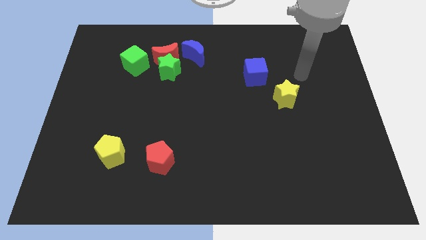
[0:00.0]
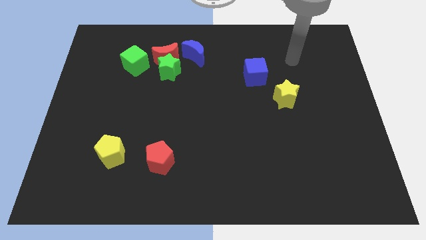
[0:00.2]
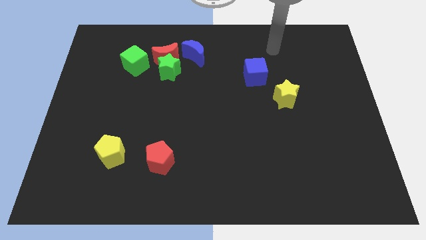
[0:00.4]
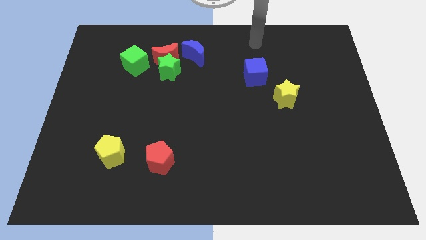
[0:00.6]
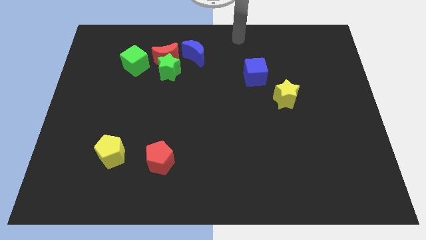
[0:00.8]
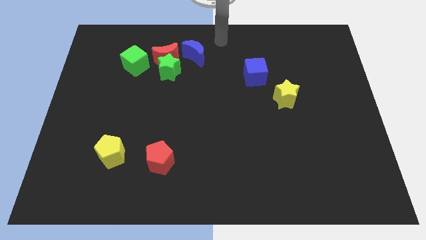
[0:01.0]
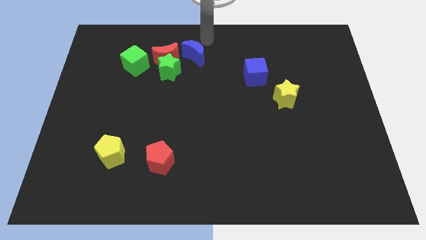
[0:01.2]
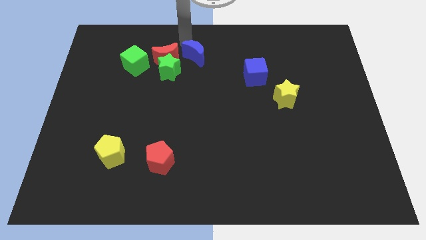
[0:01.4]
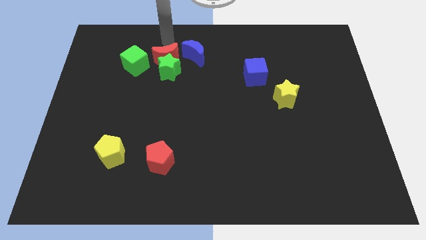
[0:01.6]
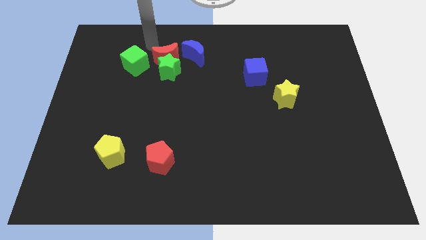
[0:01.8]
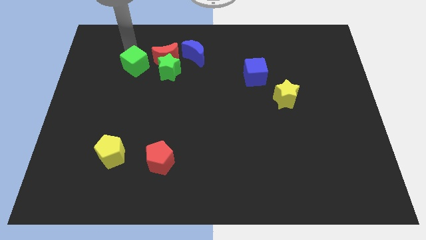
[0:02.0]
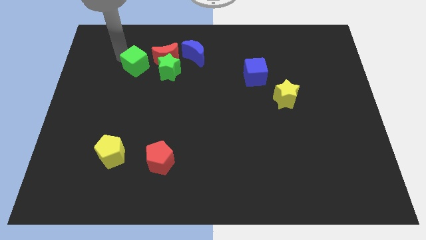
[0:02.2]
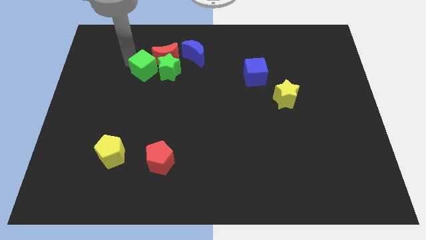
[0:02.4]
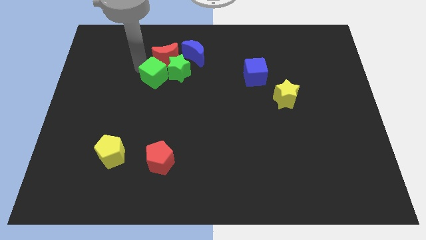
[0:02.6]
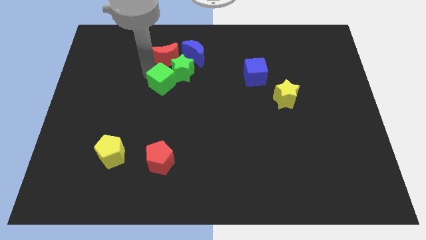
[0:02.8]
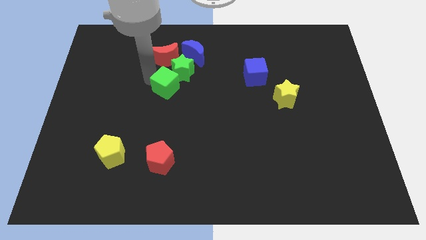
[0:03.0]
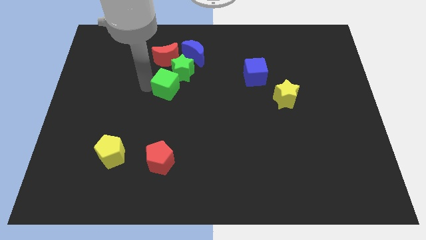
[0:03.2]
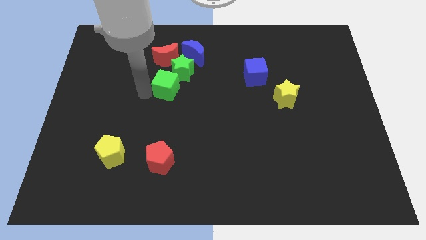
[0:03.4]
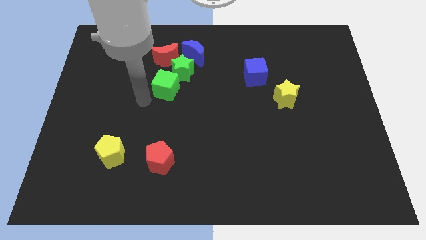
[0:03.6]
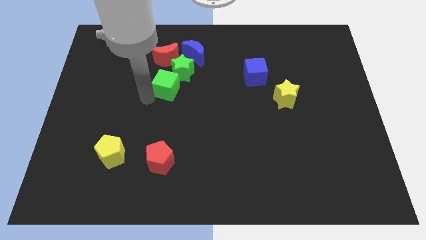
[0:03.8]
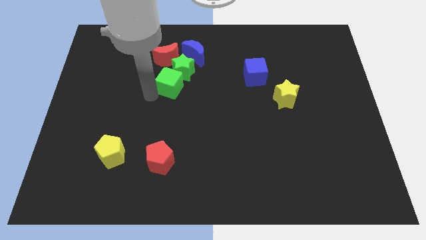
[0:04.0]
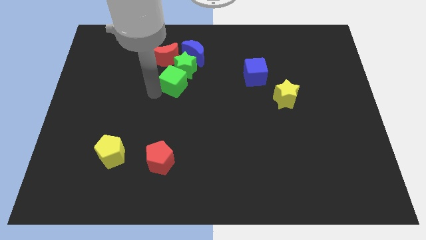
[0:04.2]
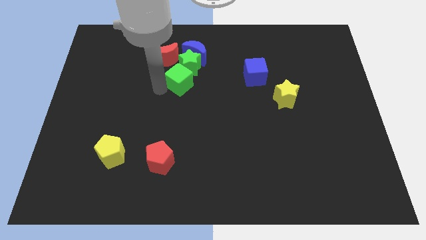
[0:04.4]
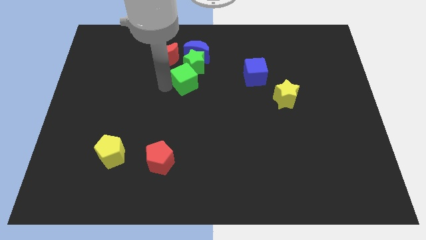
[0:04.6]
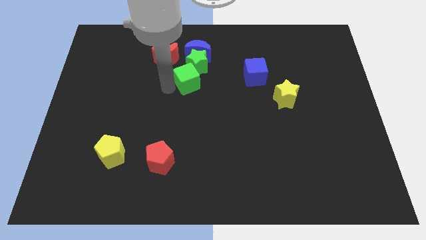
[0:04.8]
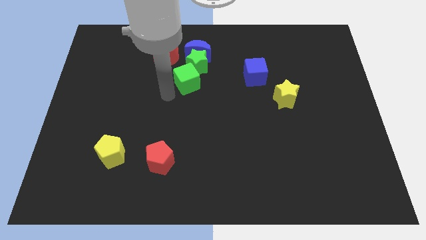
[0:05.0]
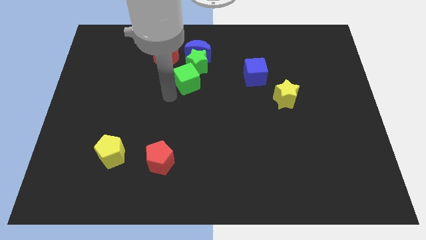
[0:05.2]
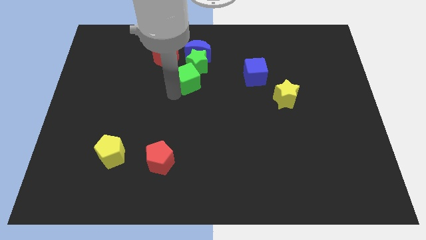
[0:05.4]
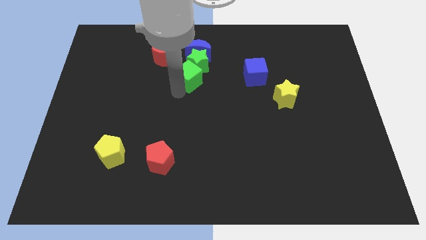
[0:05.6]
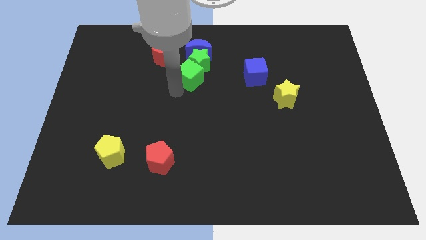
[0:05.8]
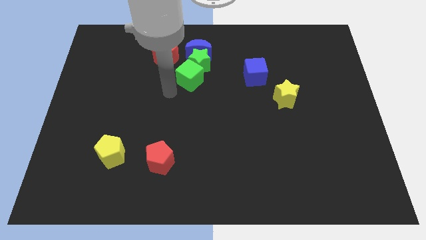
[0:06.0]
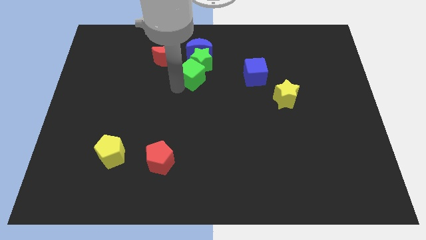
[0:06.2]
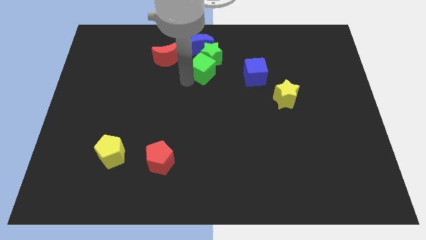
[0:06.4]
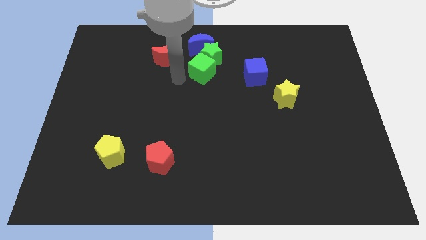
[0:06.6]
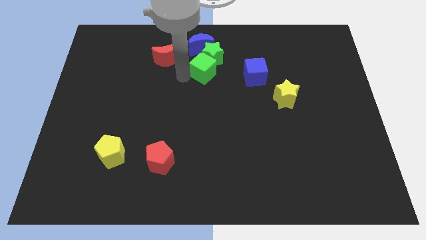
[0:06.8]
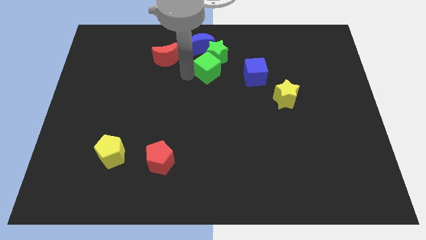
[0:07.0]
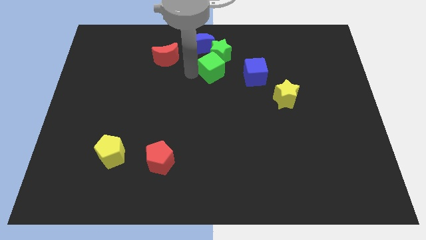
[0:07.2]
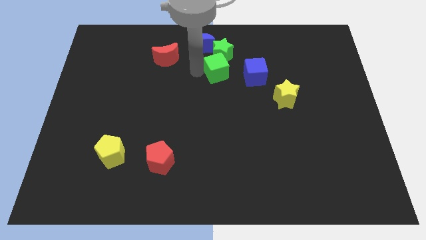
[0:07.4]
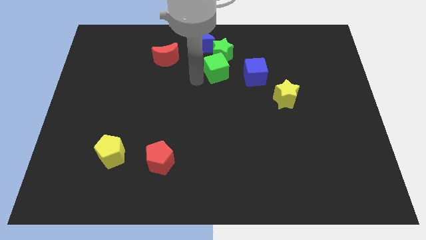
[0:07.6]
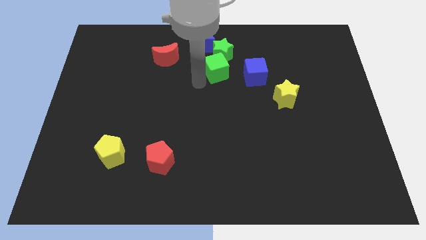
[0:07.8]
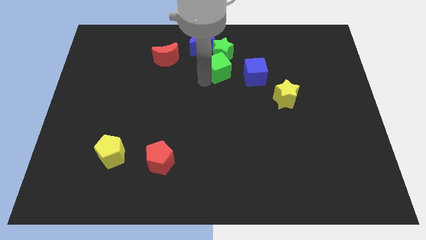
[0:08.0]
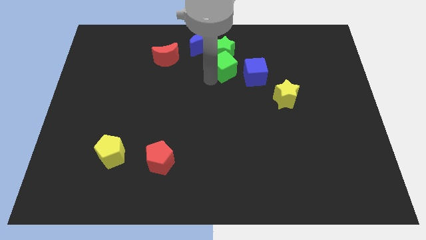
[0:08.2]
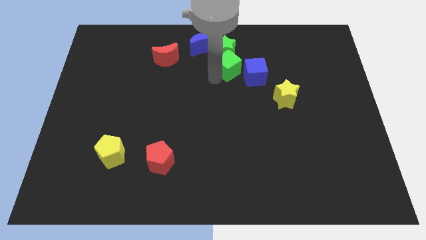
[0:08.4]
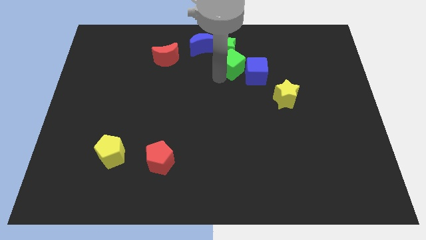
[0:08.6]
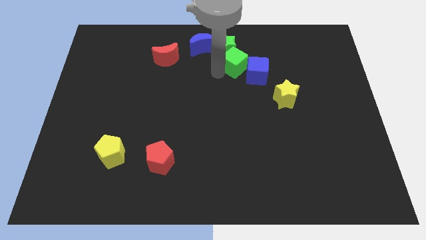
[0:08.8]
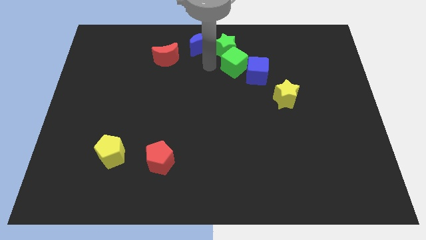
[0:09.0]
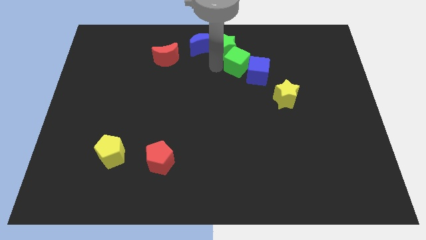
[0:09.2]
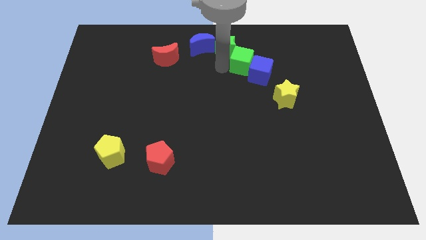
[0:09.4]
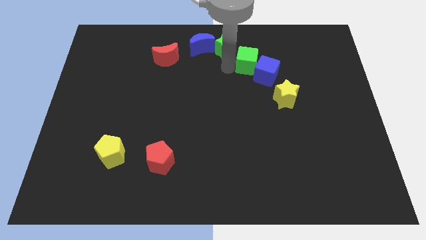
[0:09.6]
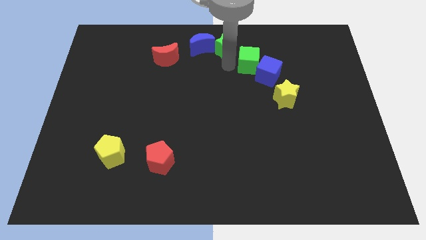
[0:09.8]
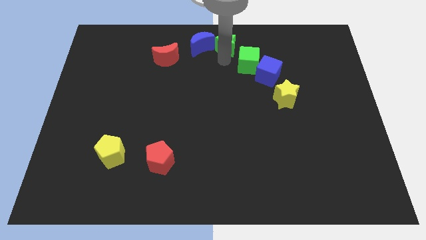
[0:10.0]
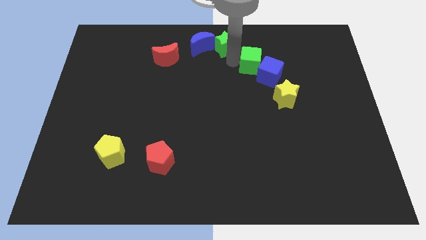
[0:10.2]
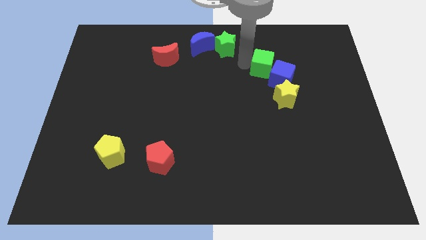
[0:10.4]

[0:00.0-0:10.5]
push the green cube above the yellow star

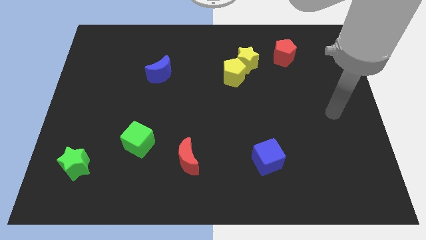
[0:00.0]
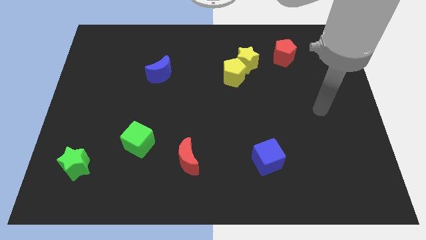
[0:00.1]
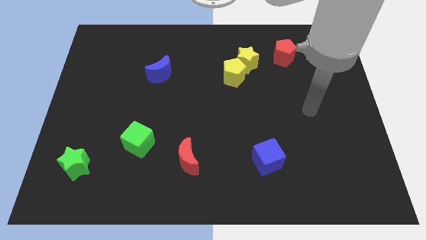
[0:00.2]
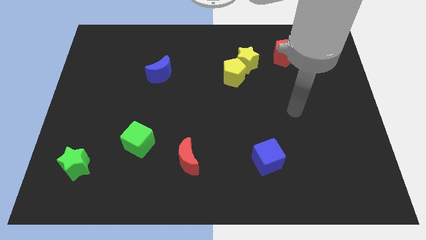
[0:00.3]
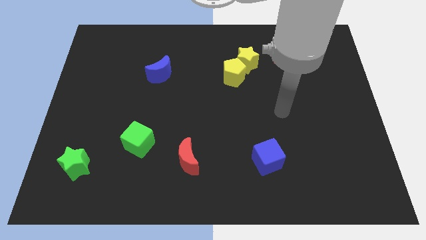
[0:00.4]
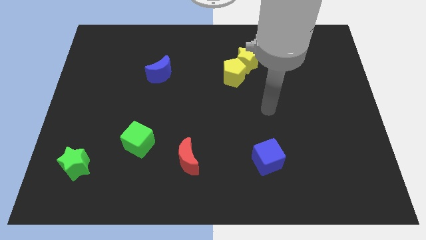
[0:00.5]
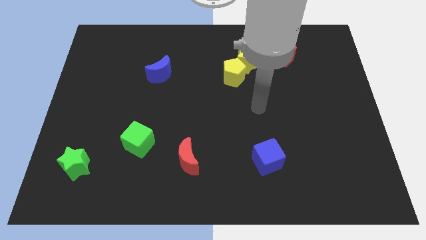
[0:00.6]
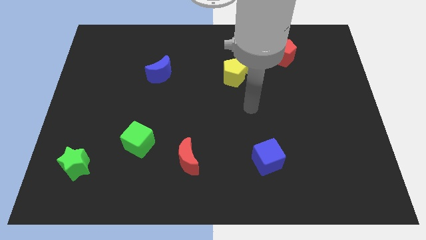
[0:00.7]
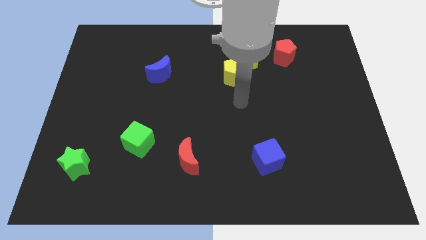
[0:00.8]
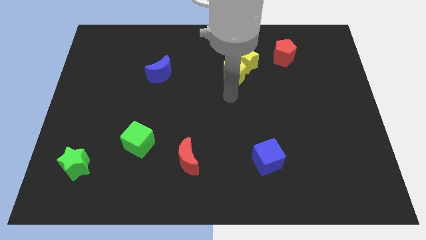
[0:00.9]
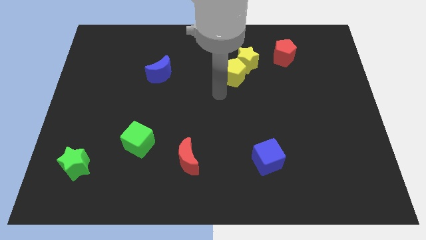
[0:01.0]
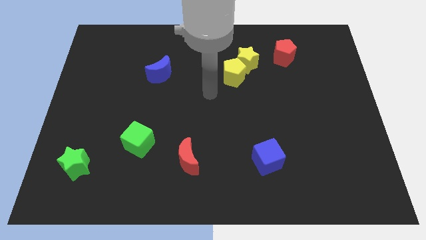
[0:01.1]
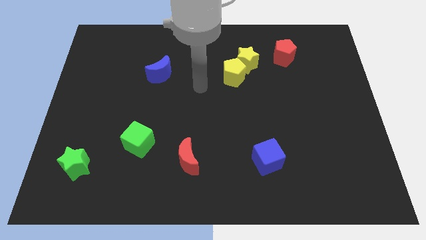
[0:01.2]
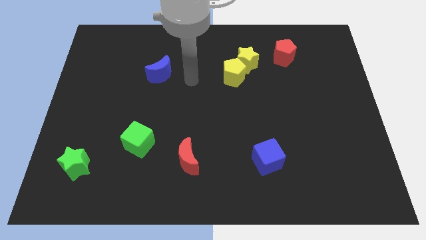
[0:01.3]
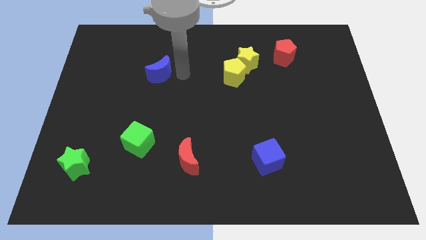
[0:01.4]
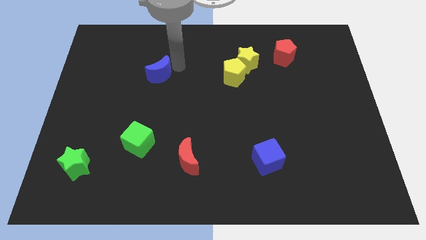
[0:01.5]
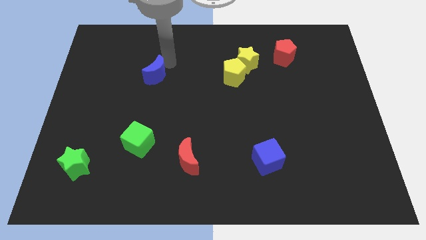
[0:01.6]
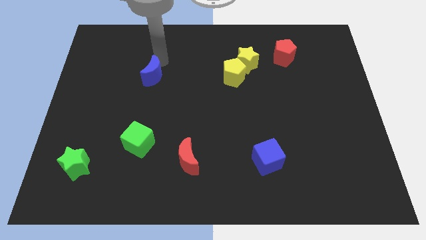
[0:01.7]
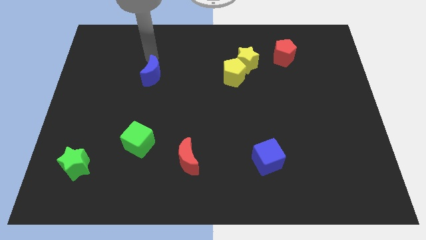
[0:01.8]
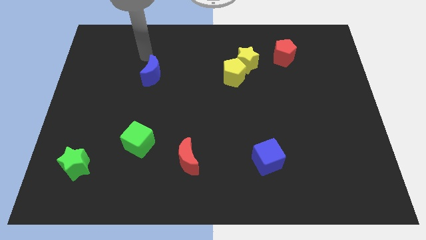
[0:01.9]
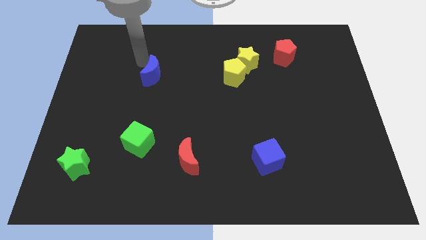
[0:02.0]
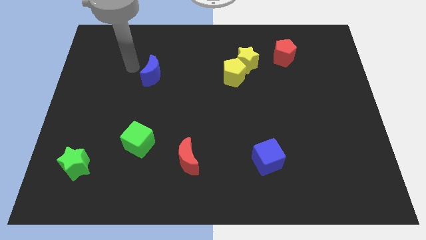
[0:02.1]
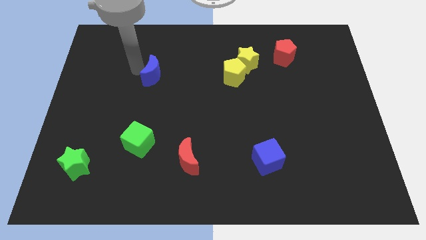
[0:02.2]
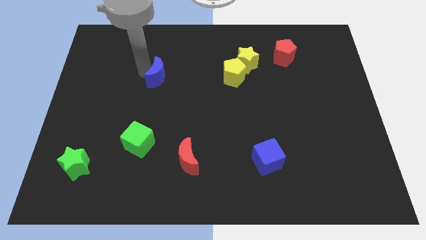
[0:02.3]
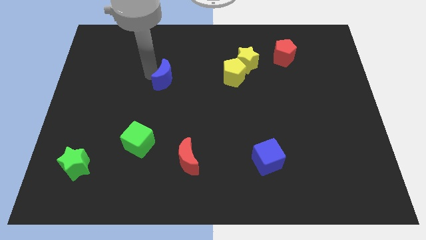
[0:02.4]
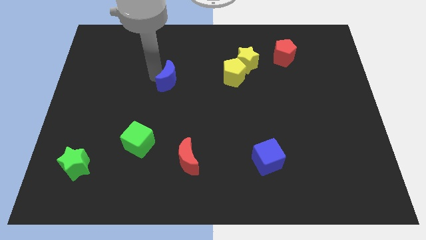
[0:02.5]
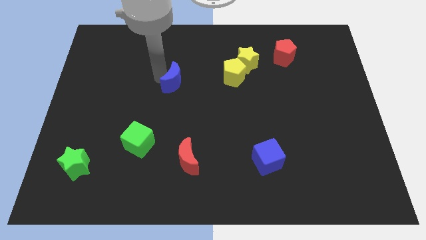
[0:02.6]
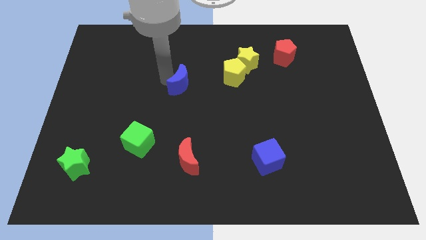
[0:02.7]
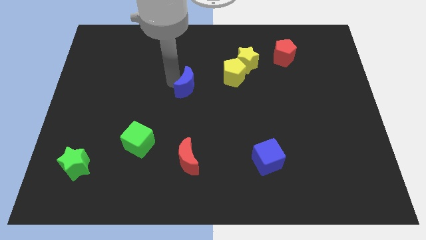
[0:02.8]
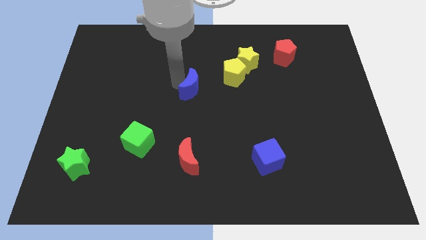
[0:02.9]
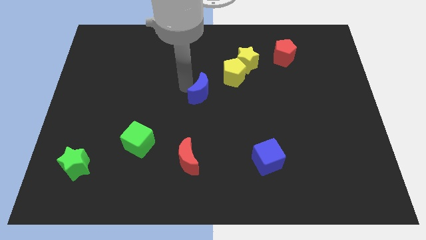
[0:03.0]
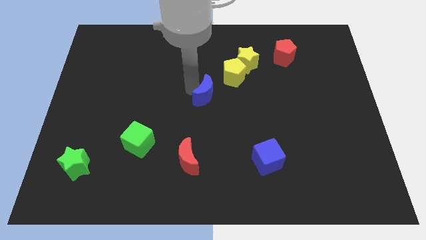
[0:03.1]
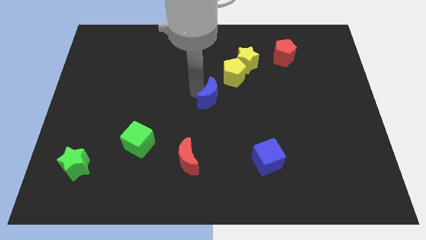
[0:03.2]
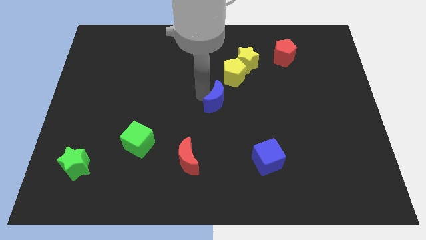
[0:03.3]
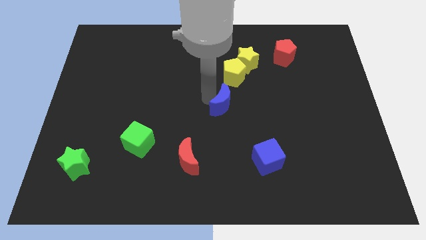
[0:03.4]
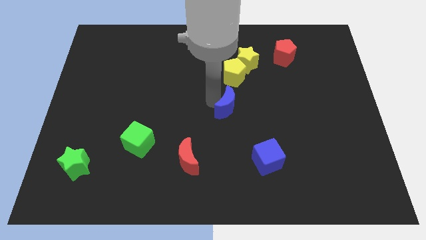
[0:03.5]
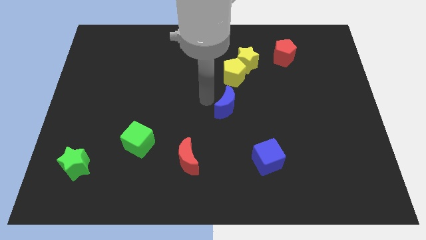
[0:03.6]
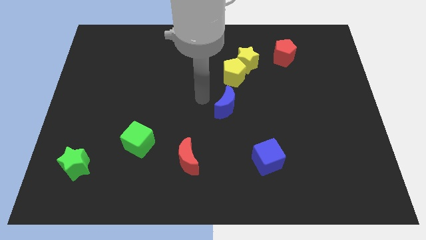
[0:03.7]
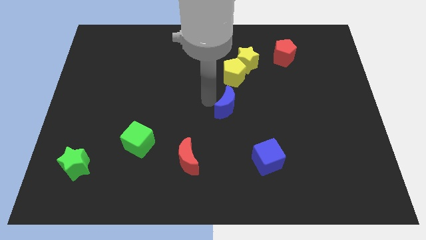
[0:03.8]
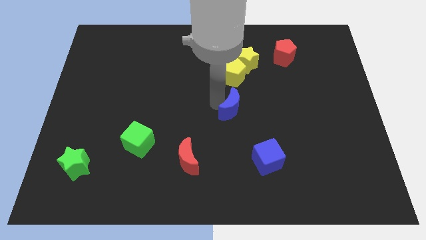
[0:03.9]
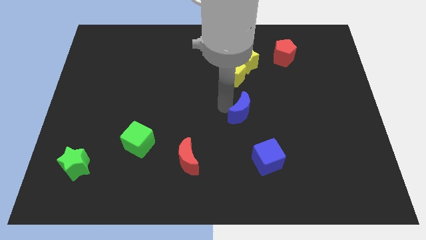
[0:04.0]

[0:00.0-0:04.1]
put the blue moon above the blue cube
